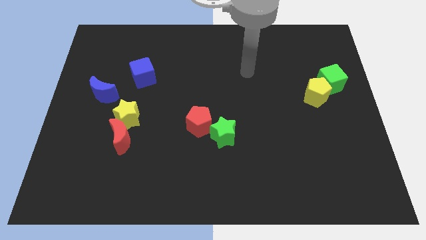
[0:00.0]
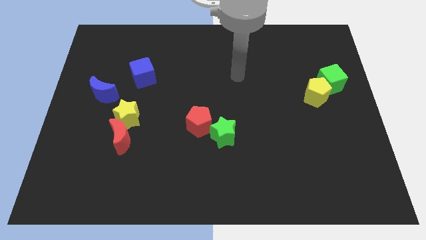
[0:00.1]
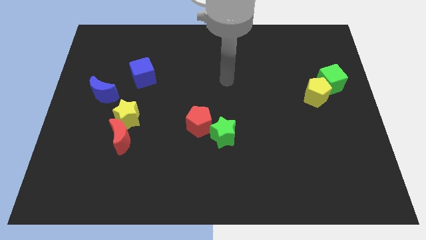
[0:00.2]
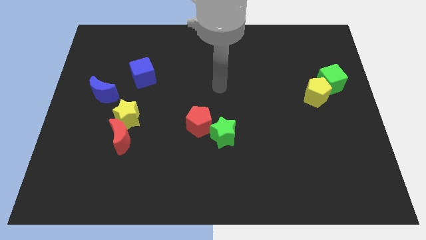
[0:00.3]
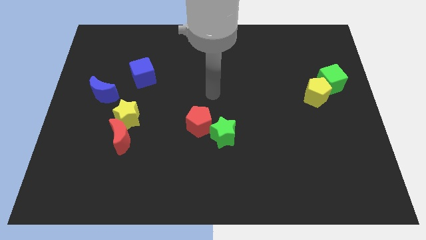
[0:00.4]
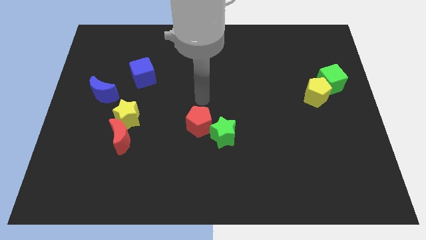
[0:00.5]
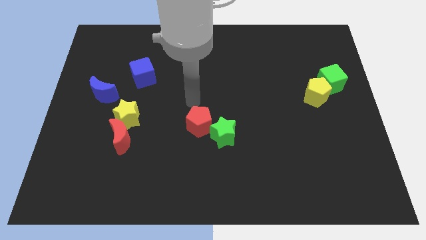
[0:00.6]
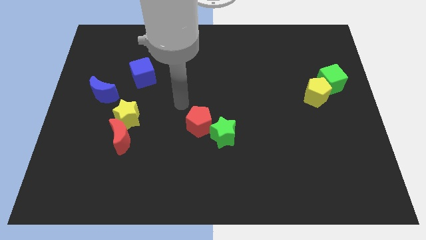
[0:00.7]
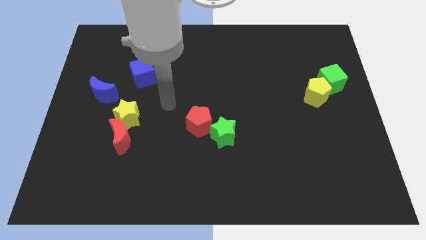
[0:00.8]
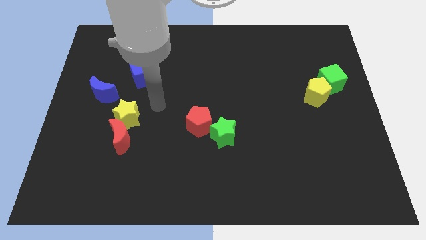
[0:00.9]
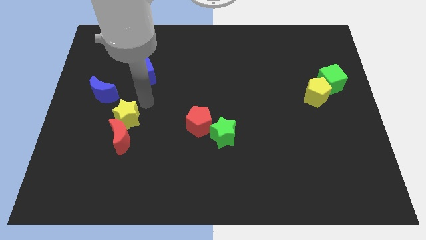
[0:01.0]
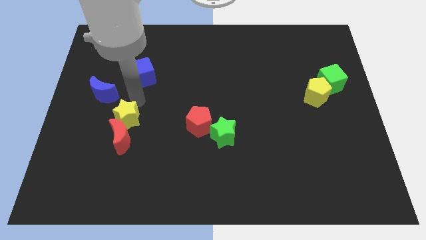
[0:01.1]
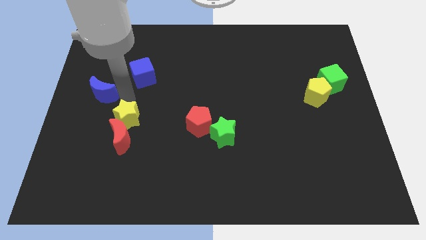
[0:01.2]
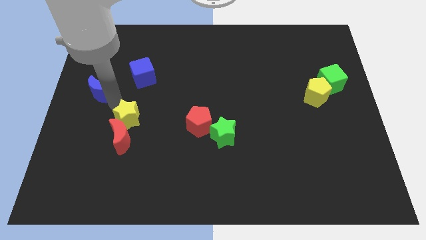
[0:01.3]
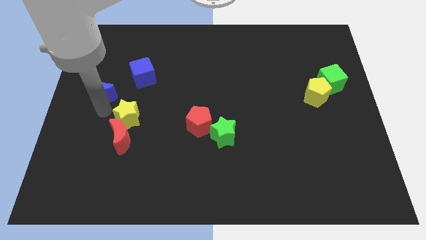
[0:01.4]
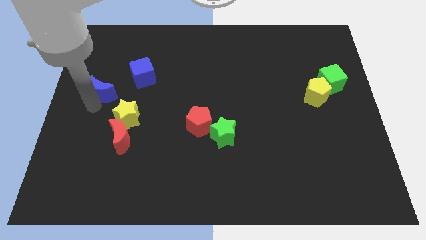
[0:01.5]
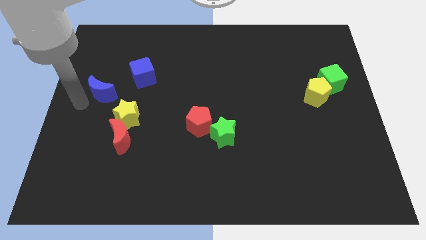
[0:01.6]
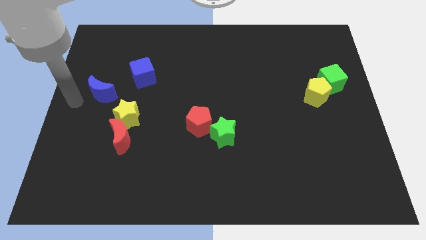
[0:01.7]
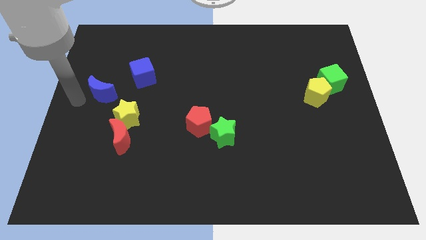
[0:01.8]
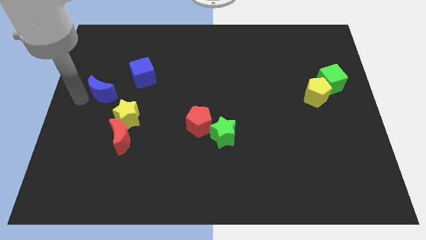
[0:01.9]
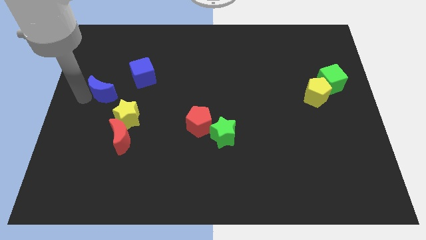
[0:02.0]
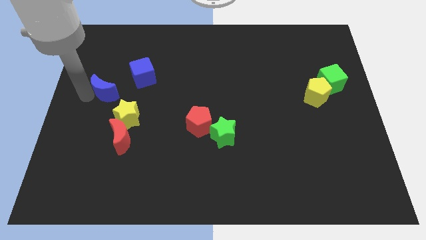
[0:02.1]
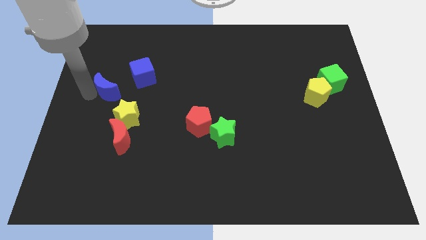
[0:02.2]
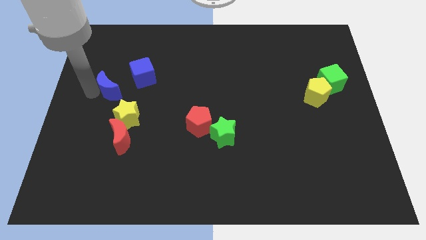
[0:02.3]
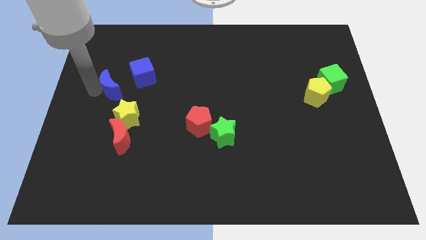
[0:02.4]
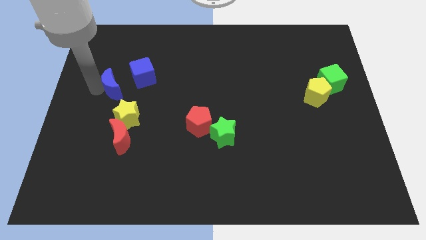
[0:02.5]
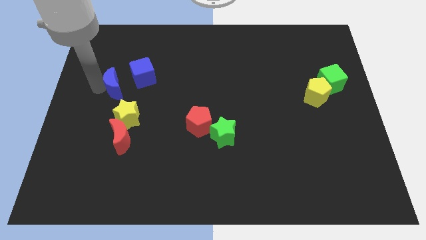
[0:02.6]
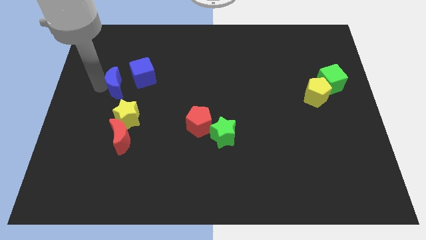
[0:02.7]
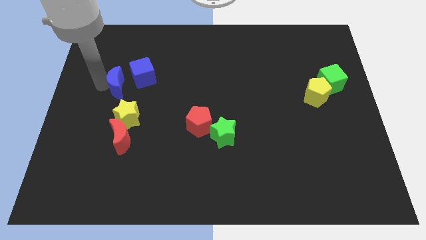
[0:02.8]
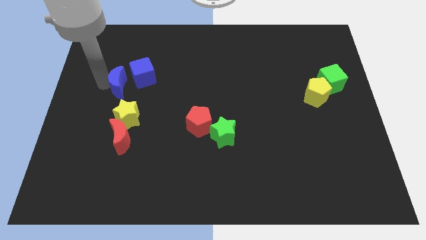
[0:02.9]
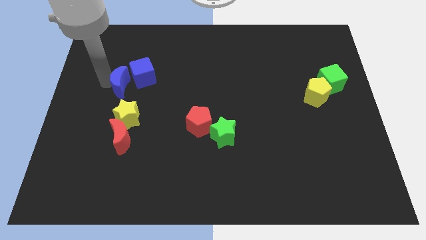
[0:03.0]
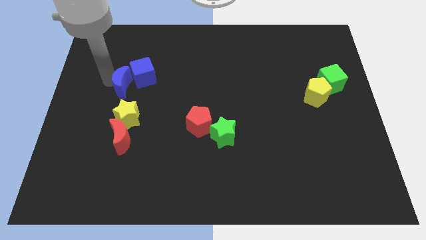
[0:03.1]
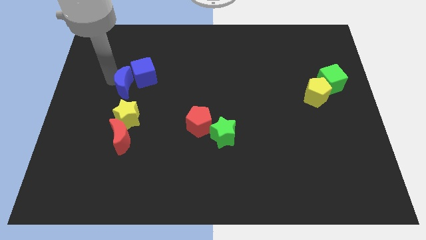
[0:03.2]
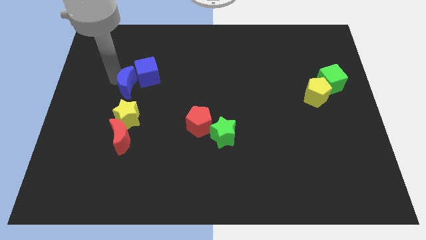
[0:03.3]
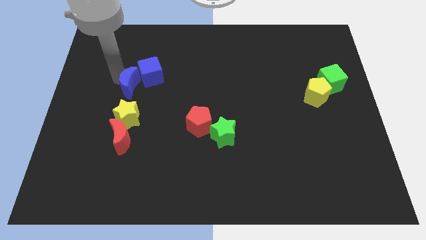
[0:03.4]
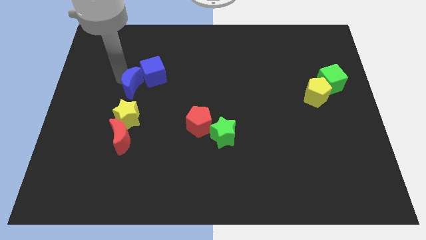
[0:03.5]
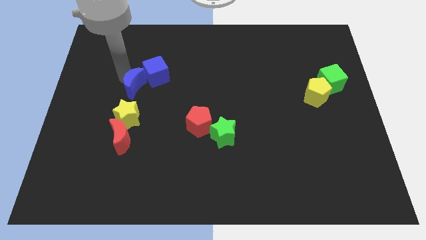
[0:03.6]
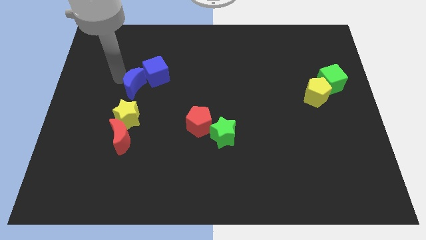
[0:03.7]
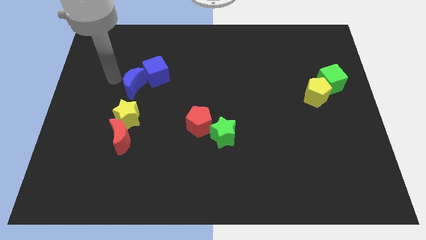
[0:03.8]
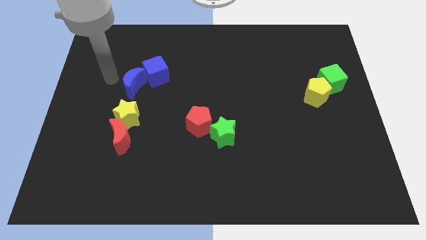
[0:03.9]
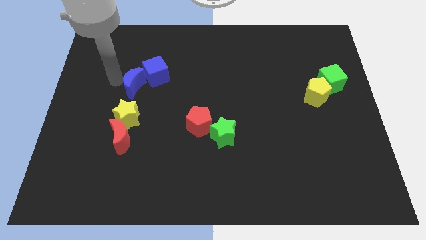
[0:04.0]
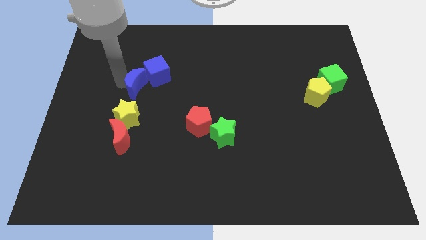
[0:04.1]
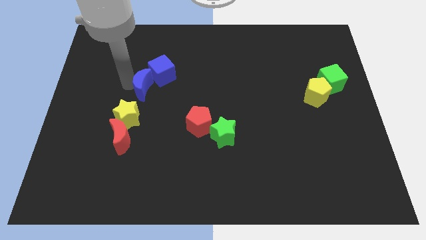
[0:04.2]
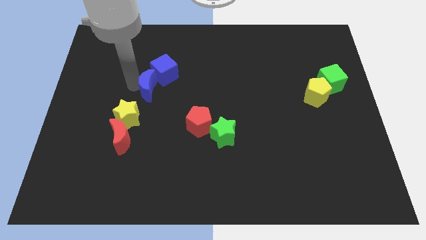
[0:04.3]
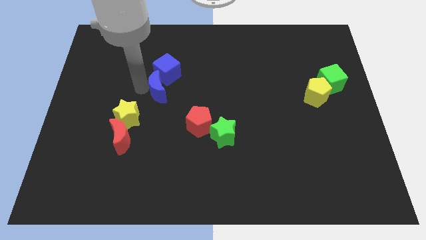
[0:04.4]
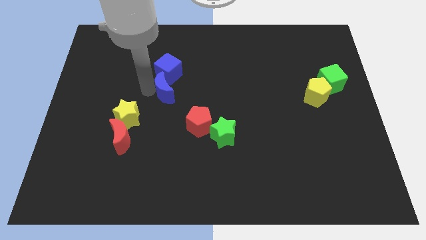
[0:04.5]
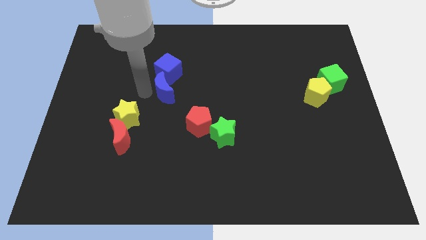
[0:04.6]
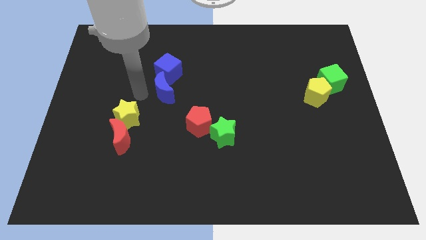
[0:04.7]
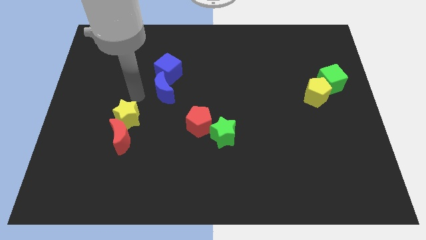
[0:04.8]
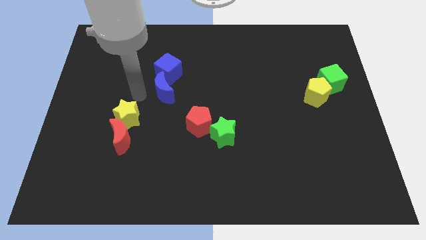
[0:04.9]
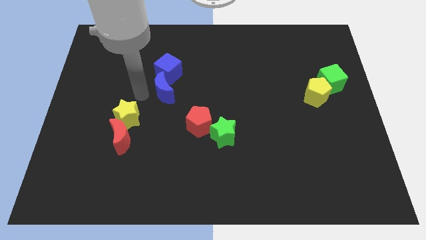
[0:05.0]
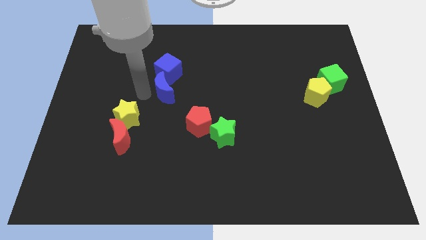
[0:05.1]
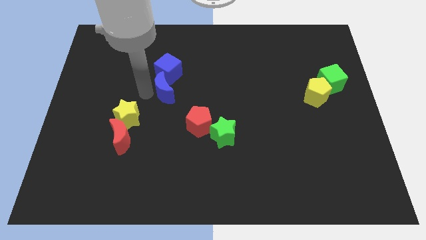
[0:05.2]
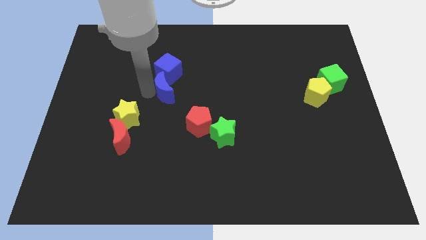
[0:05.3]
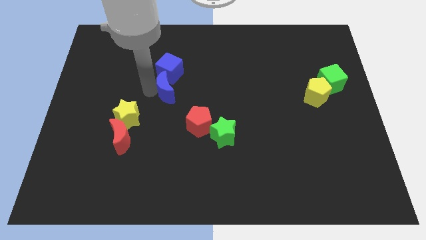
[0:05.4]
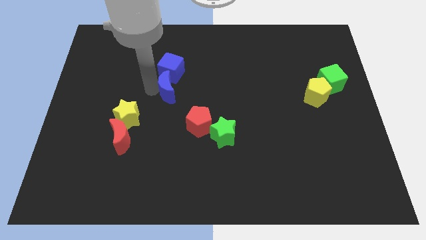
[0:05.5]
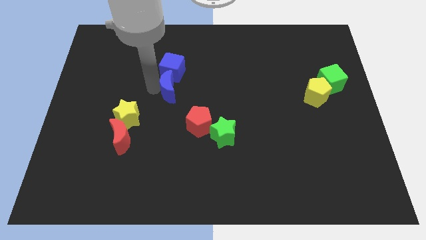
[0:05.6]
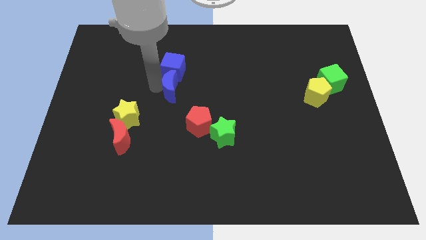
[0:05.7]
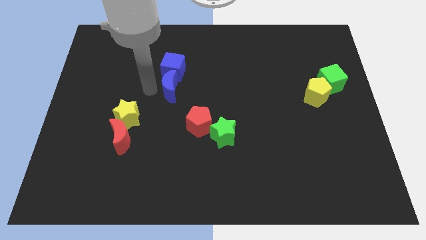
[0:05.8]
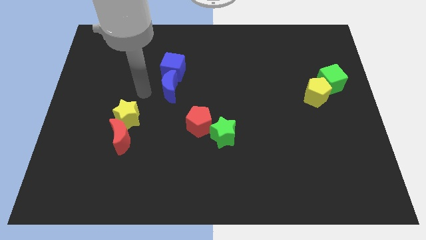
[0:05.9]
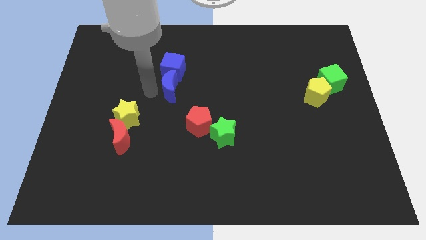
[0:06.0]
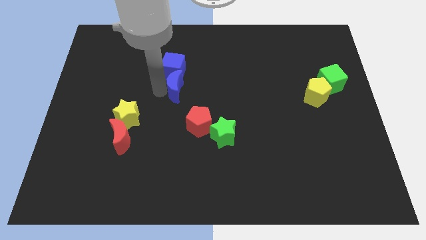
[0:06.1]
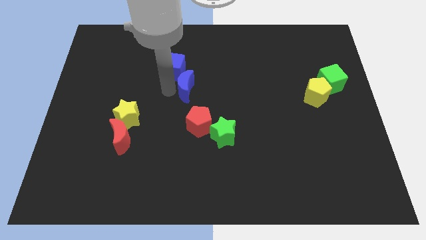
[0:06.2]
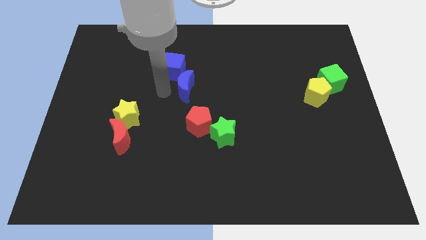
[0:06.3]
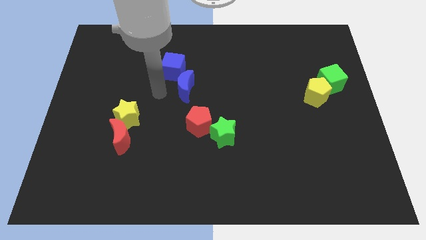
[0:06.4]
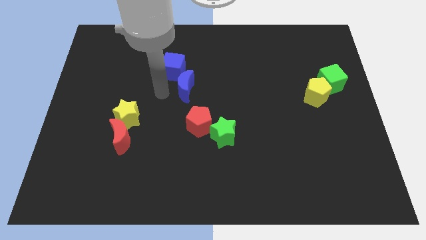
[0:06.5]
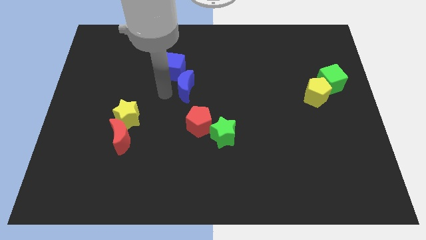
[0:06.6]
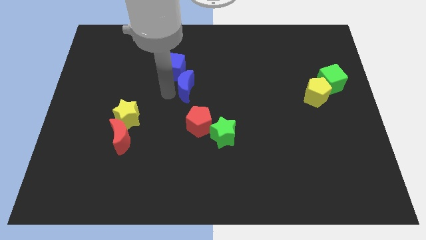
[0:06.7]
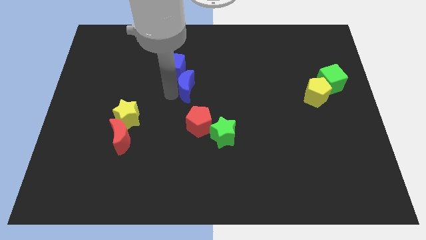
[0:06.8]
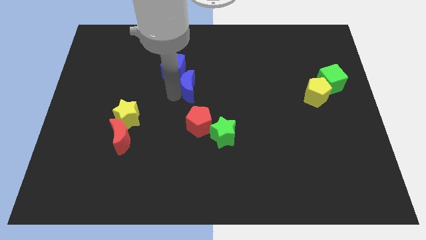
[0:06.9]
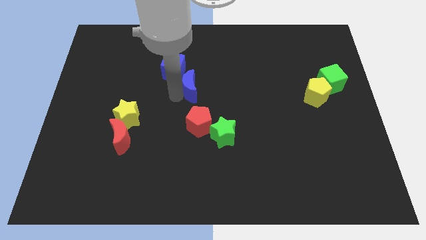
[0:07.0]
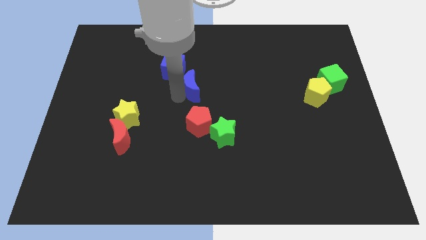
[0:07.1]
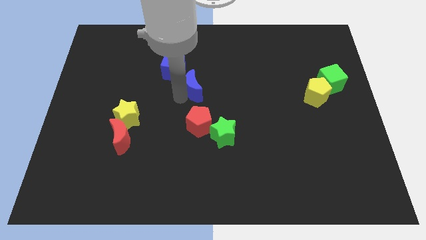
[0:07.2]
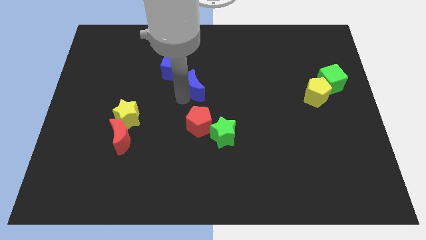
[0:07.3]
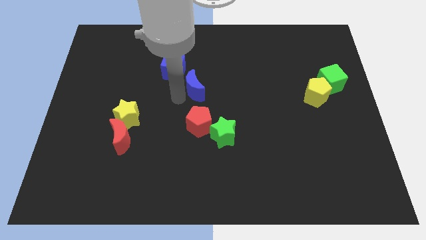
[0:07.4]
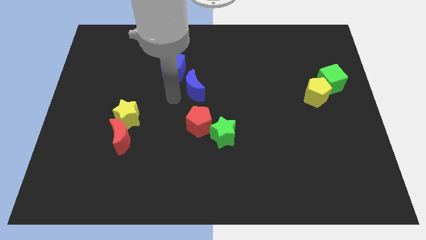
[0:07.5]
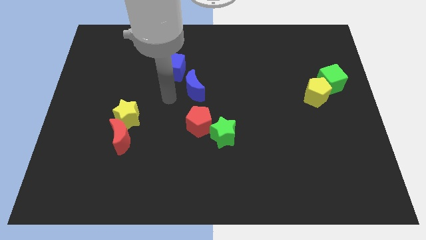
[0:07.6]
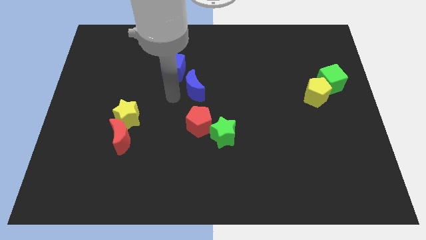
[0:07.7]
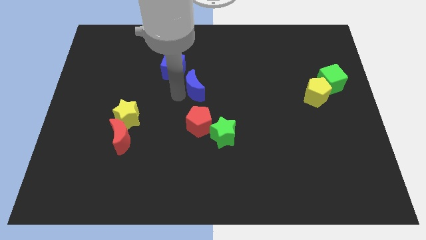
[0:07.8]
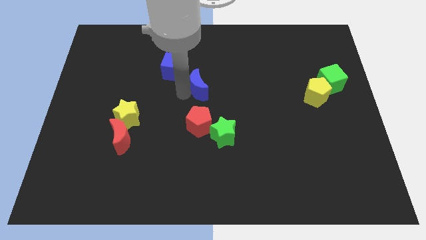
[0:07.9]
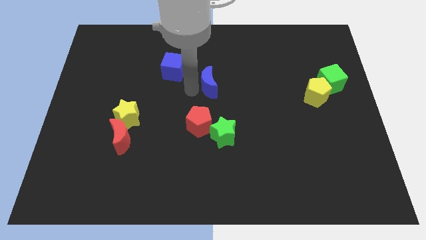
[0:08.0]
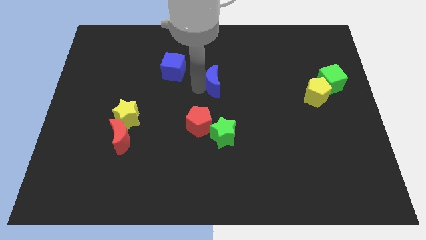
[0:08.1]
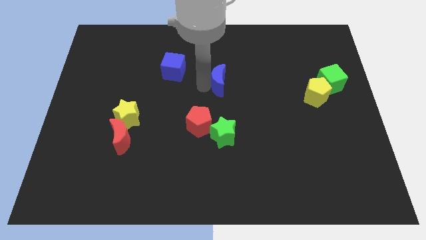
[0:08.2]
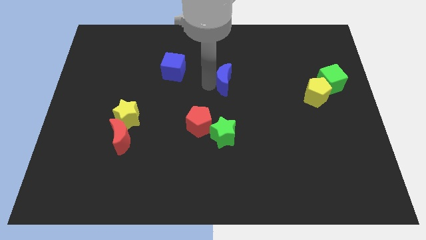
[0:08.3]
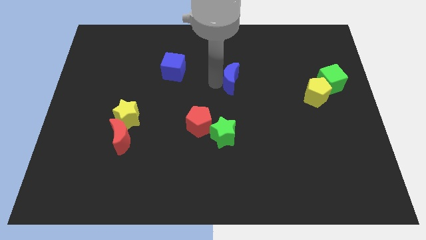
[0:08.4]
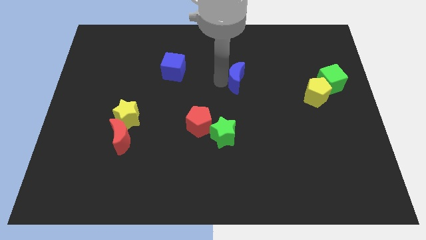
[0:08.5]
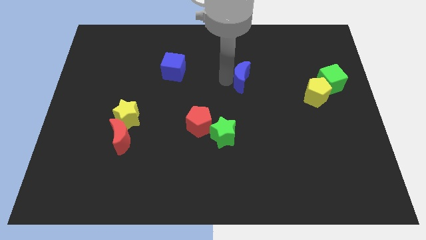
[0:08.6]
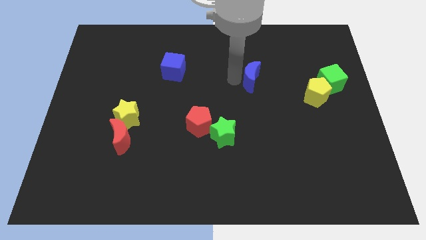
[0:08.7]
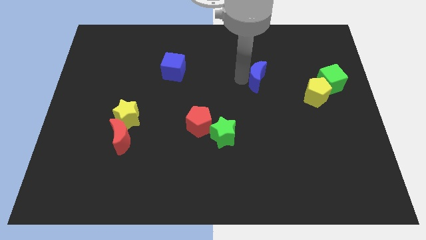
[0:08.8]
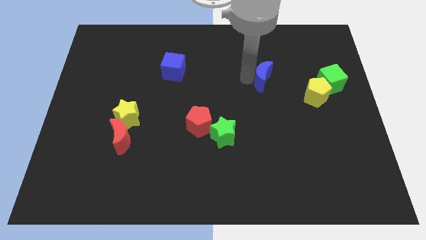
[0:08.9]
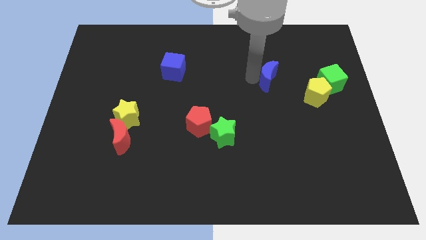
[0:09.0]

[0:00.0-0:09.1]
push the blue moon to the left side of the green cube
